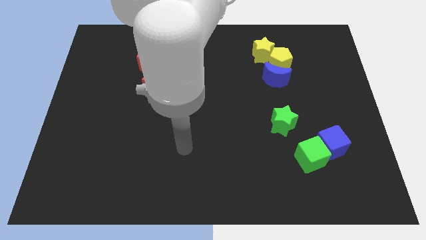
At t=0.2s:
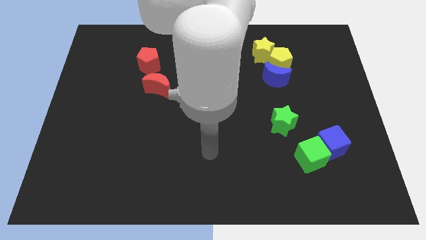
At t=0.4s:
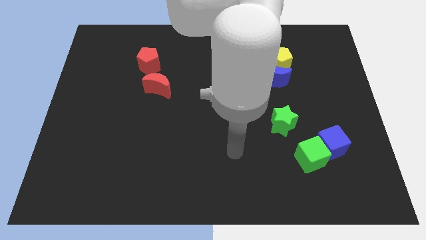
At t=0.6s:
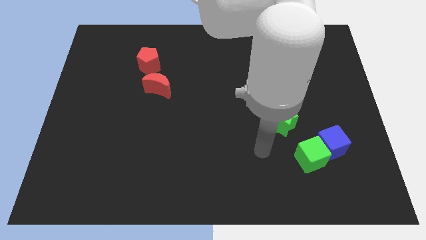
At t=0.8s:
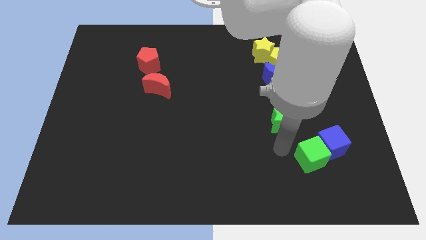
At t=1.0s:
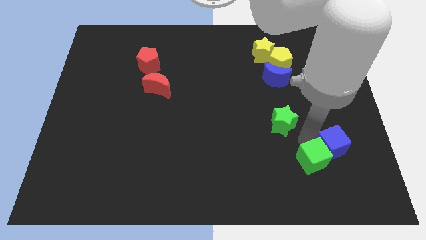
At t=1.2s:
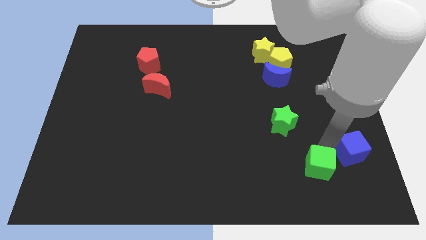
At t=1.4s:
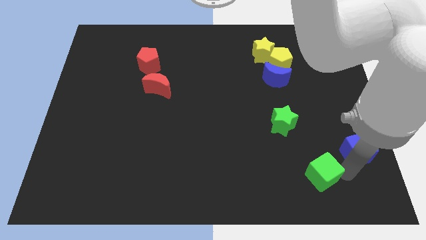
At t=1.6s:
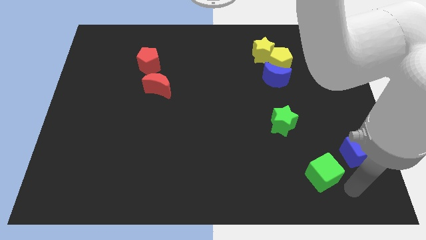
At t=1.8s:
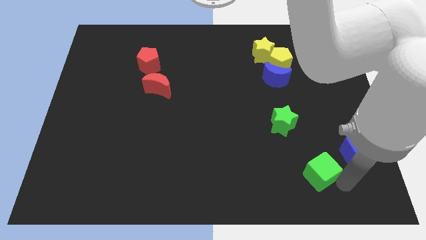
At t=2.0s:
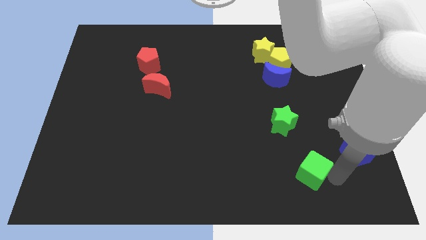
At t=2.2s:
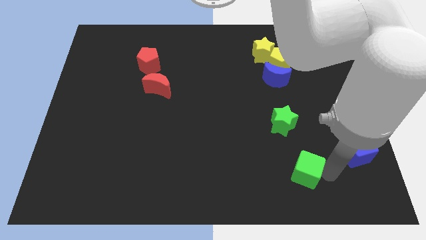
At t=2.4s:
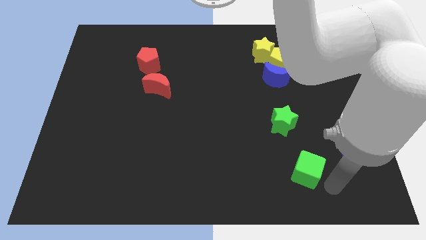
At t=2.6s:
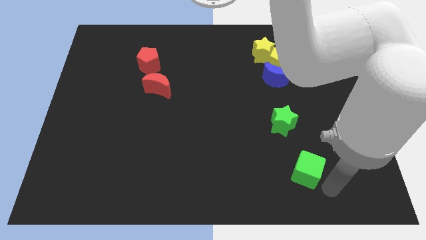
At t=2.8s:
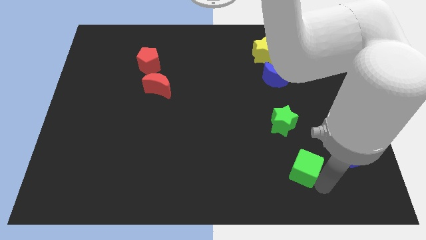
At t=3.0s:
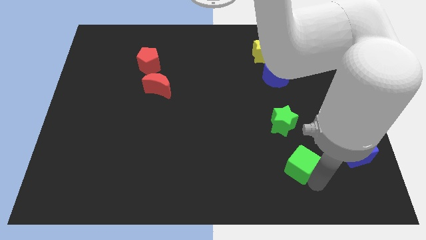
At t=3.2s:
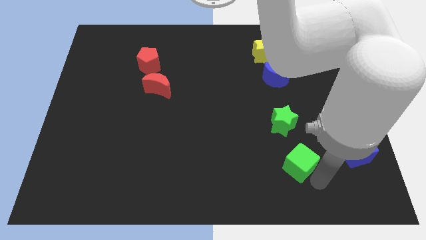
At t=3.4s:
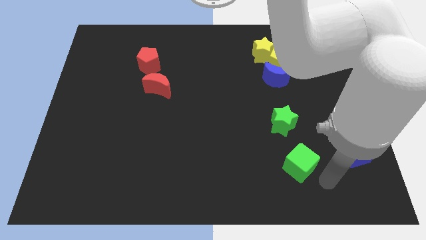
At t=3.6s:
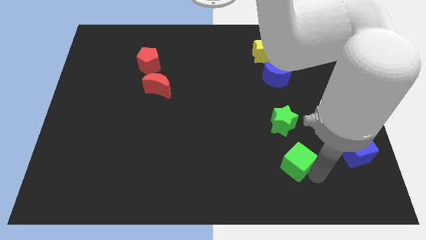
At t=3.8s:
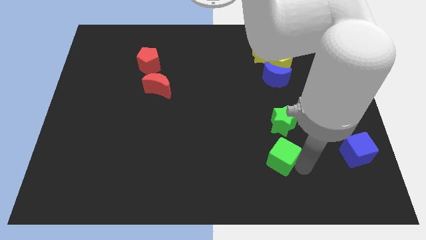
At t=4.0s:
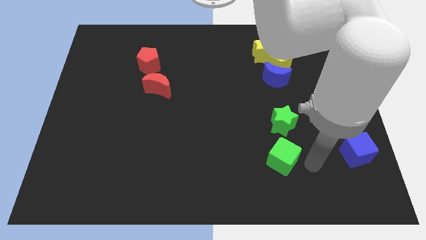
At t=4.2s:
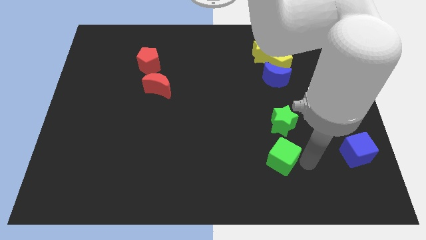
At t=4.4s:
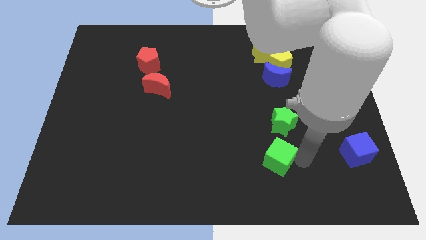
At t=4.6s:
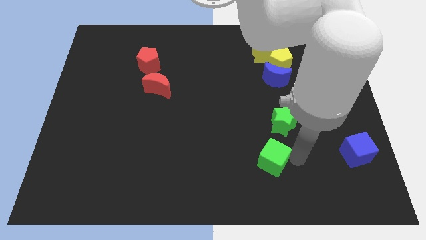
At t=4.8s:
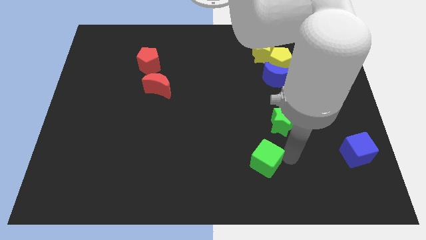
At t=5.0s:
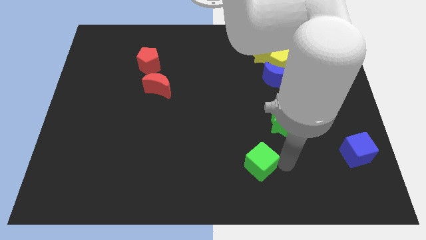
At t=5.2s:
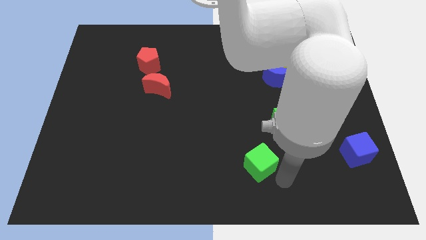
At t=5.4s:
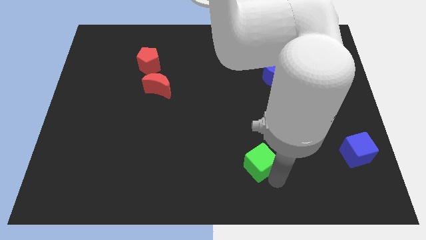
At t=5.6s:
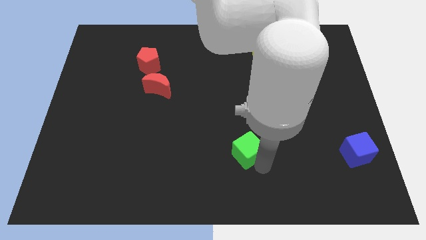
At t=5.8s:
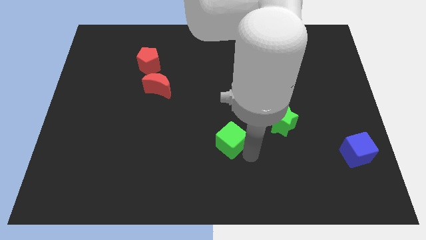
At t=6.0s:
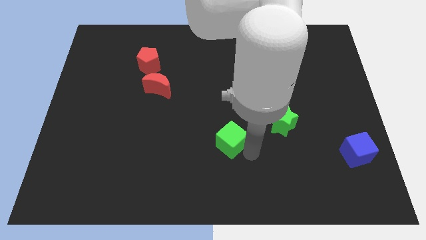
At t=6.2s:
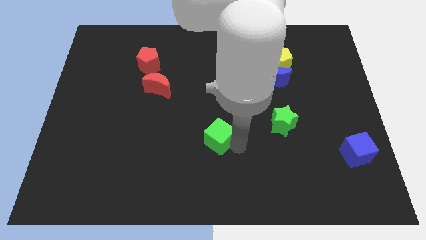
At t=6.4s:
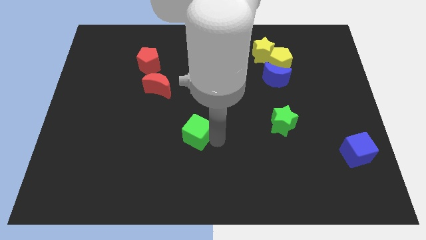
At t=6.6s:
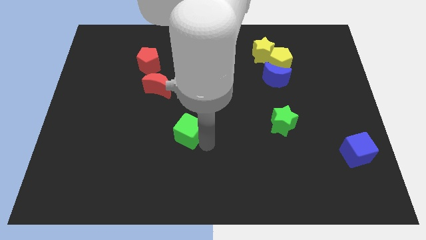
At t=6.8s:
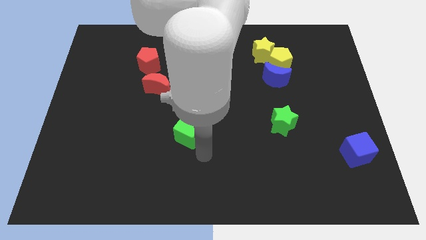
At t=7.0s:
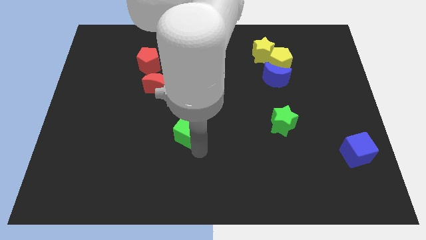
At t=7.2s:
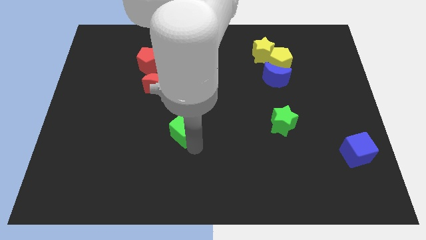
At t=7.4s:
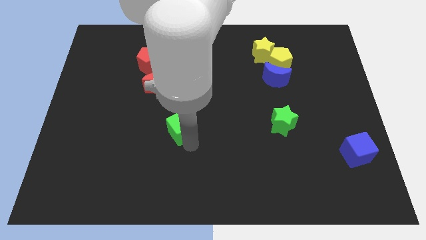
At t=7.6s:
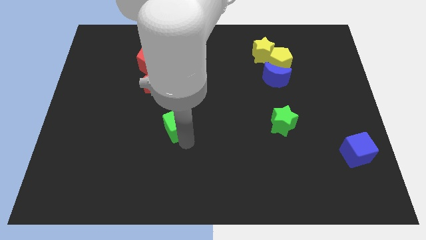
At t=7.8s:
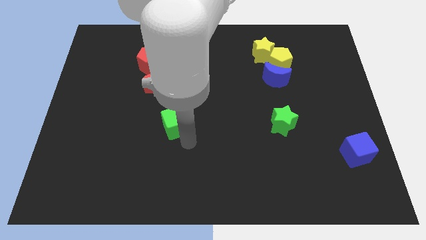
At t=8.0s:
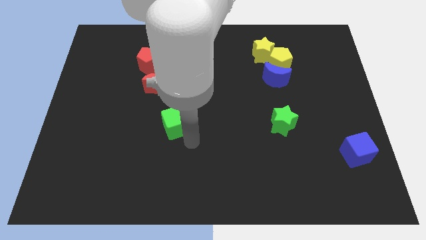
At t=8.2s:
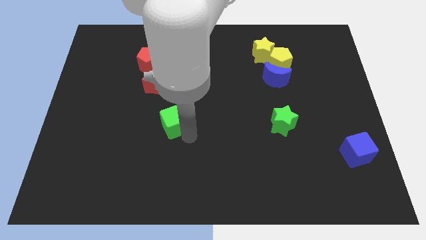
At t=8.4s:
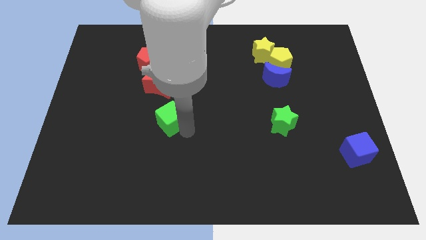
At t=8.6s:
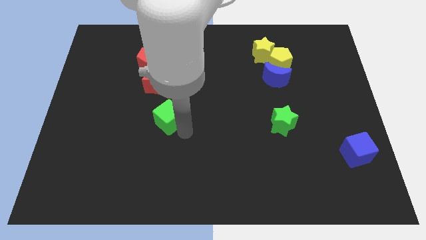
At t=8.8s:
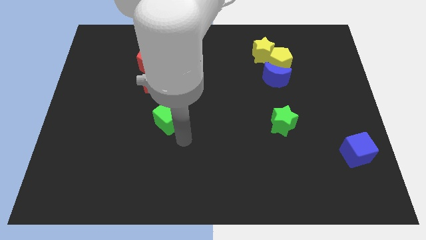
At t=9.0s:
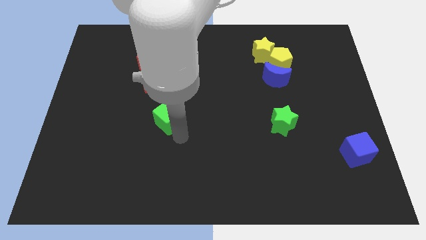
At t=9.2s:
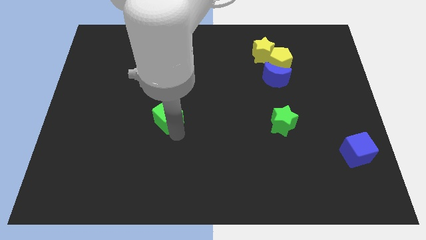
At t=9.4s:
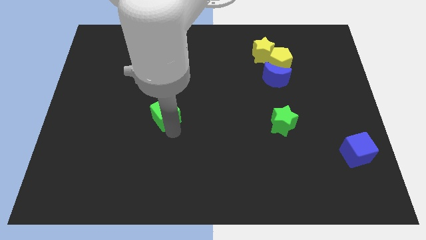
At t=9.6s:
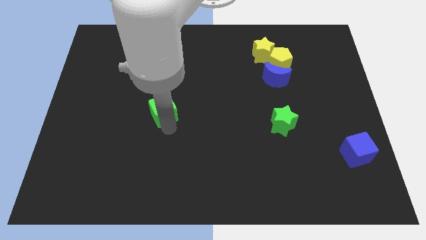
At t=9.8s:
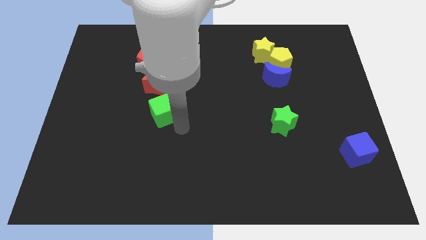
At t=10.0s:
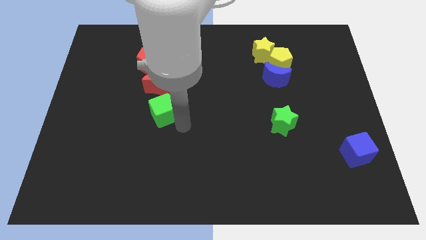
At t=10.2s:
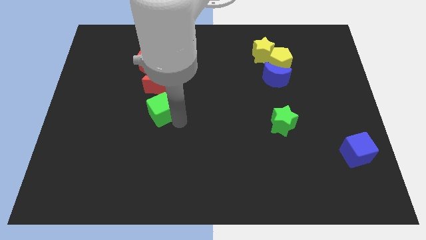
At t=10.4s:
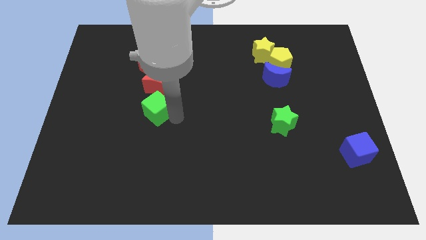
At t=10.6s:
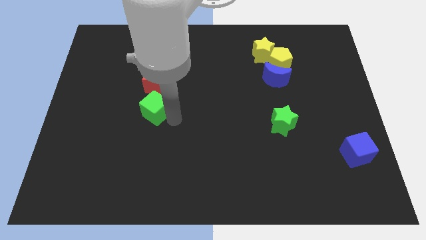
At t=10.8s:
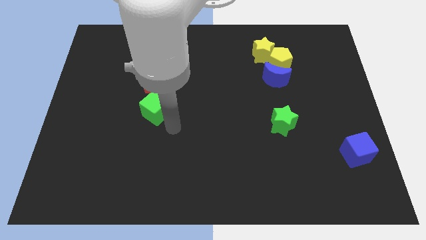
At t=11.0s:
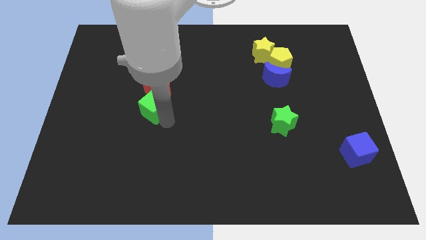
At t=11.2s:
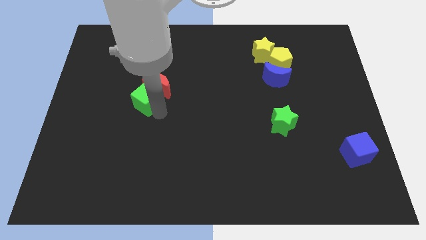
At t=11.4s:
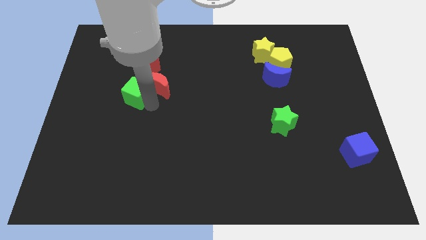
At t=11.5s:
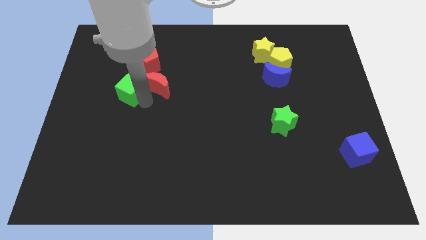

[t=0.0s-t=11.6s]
move the green cube diagonally down and to the left of the red pentagon

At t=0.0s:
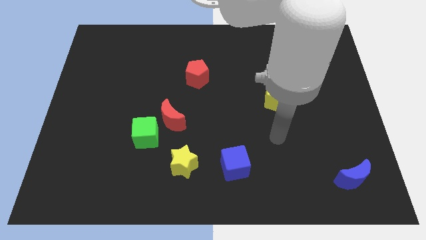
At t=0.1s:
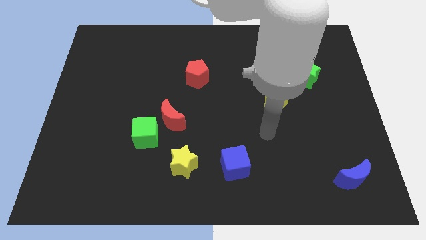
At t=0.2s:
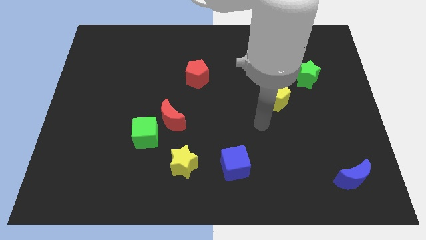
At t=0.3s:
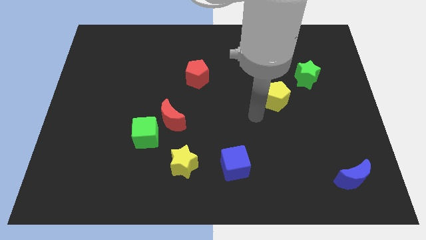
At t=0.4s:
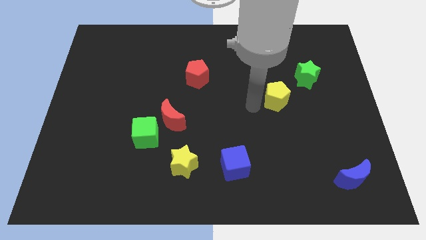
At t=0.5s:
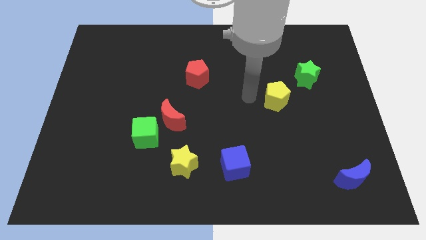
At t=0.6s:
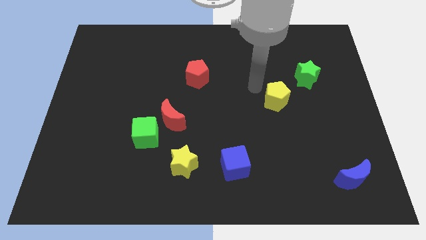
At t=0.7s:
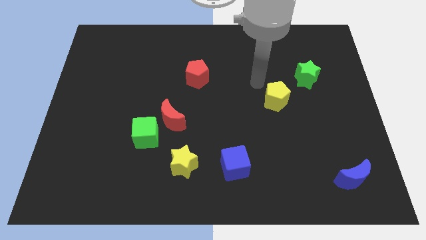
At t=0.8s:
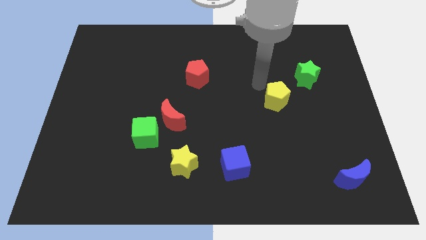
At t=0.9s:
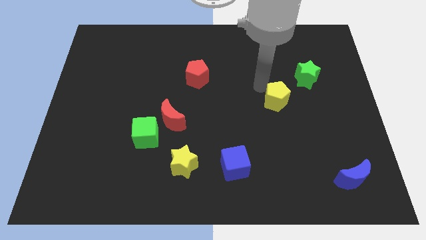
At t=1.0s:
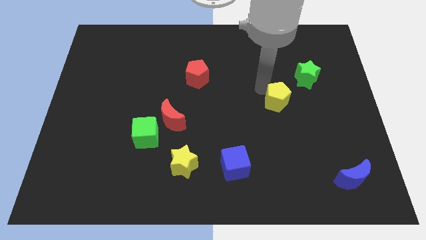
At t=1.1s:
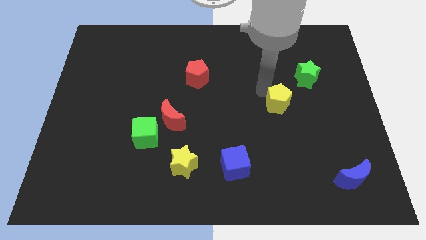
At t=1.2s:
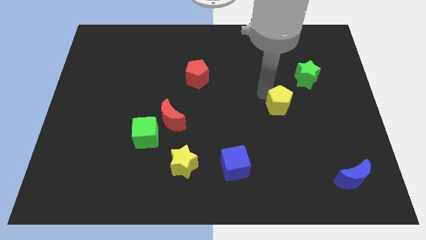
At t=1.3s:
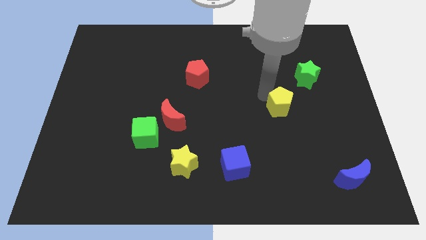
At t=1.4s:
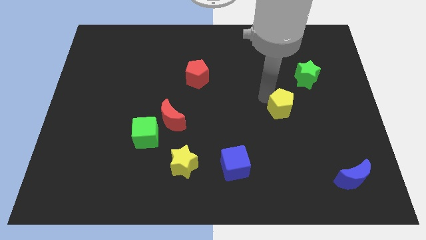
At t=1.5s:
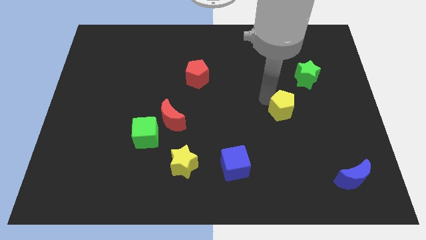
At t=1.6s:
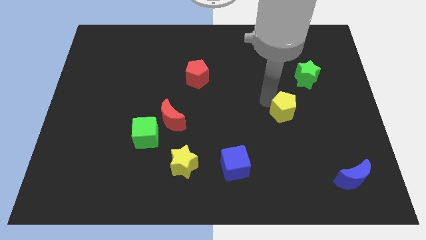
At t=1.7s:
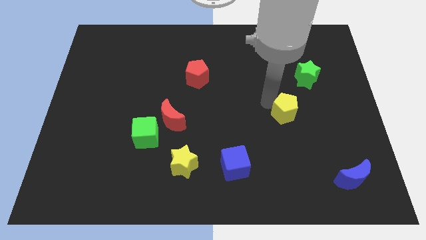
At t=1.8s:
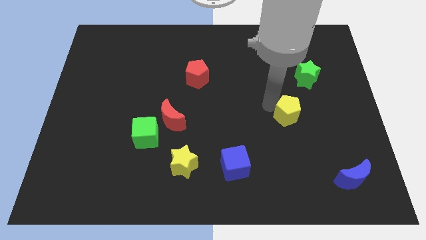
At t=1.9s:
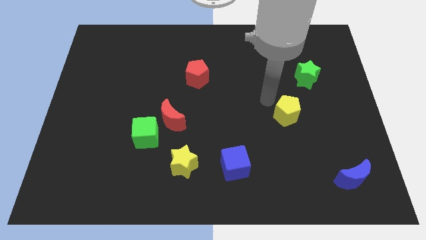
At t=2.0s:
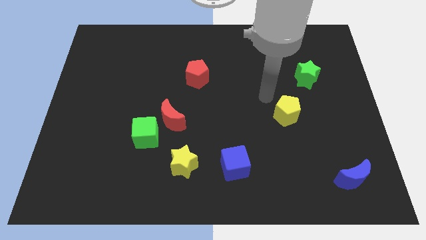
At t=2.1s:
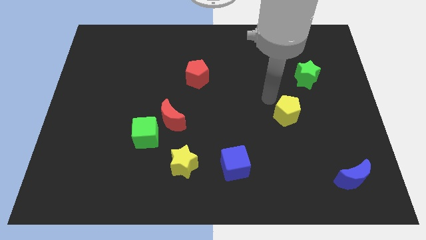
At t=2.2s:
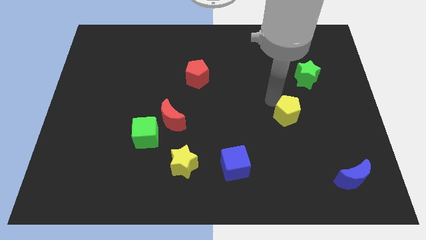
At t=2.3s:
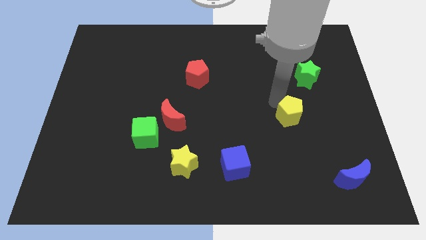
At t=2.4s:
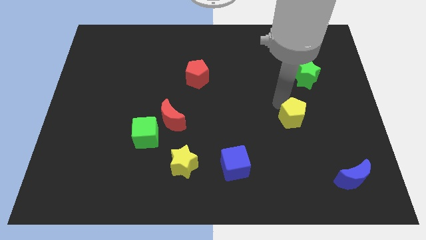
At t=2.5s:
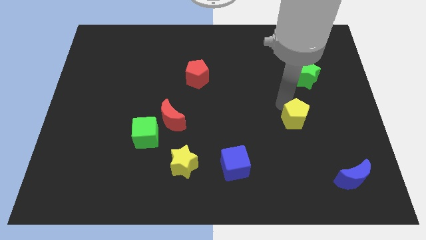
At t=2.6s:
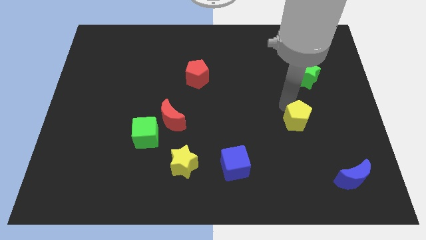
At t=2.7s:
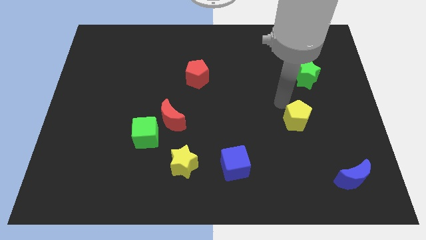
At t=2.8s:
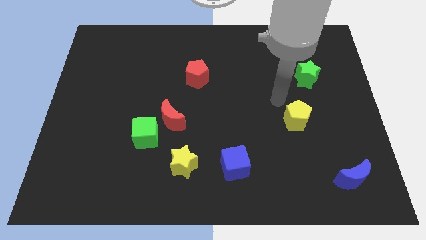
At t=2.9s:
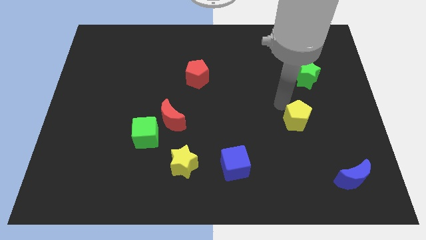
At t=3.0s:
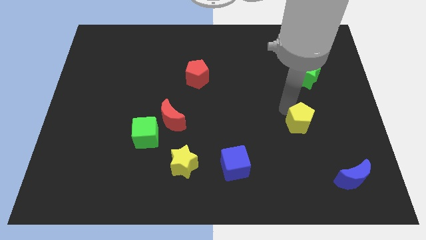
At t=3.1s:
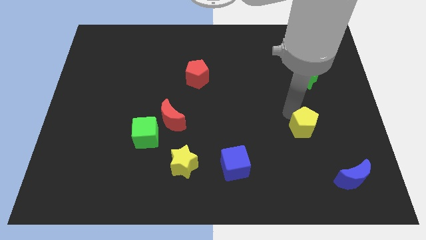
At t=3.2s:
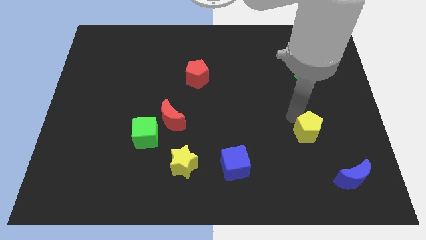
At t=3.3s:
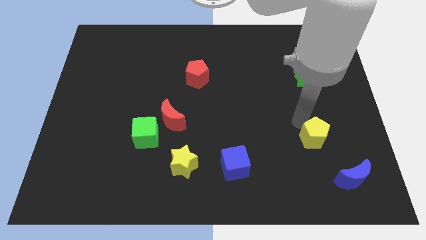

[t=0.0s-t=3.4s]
push the yellow pentagon to the top left of the blue moon
